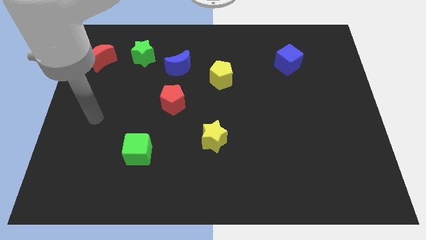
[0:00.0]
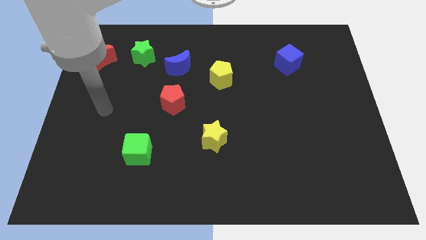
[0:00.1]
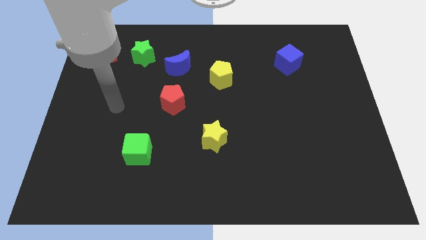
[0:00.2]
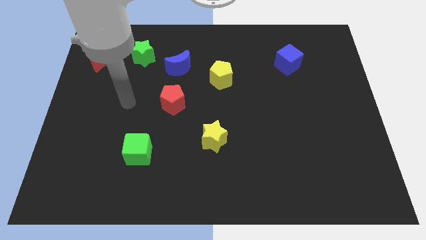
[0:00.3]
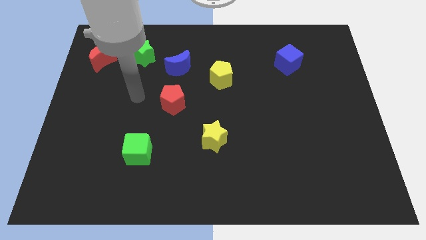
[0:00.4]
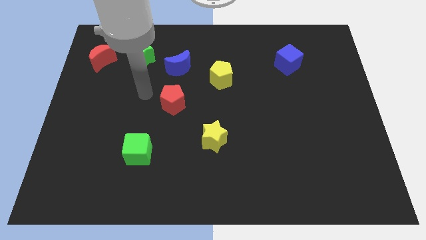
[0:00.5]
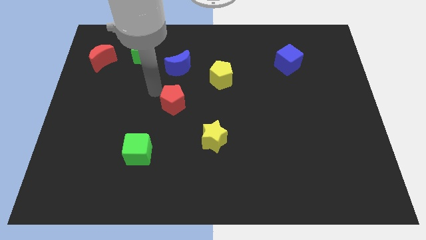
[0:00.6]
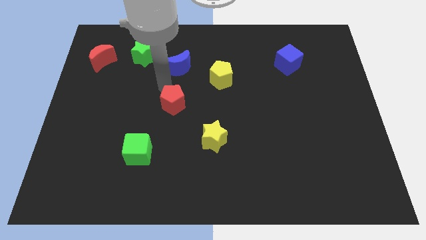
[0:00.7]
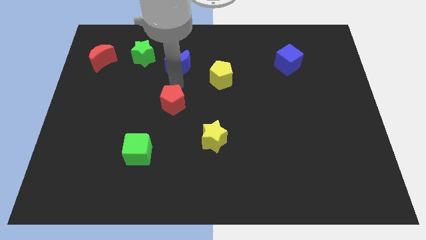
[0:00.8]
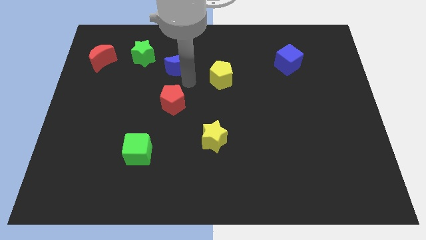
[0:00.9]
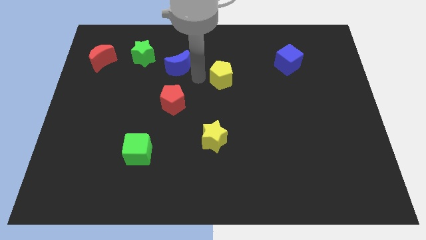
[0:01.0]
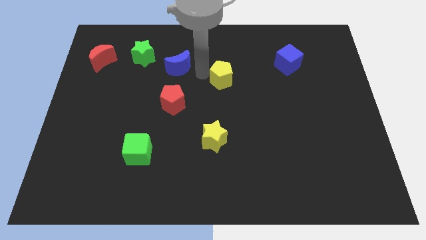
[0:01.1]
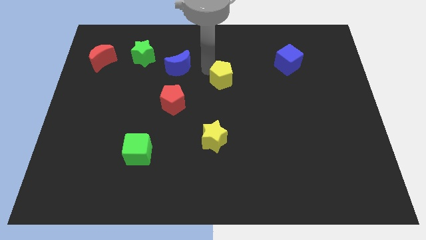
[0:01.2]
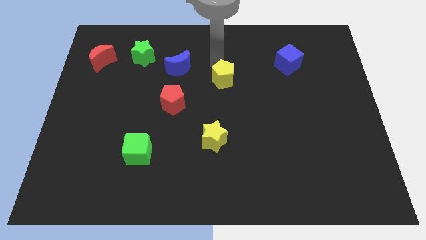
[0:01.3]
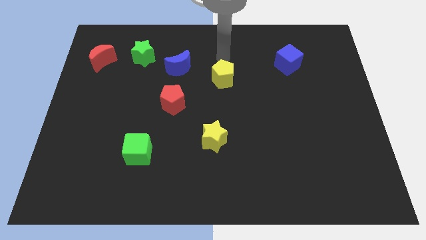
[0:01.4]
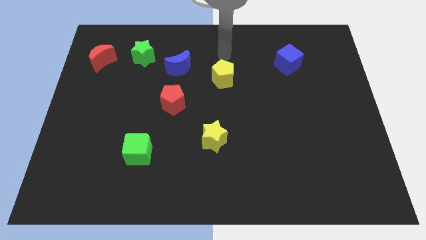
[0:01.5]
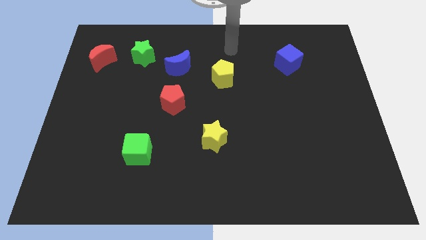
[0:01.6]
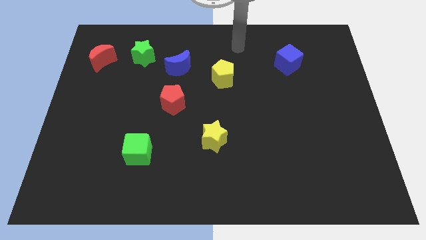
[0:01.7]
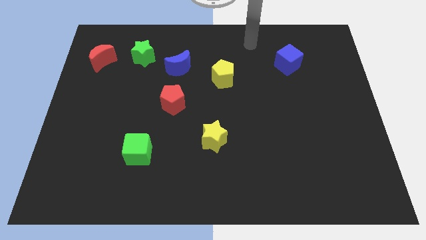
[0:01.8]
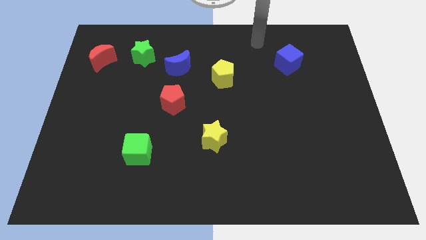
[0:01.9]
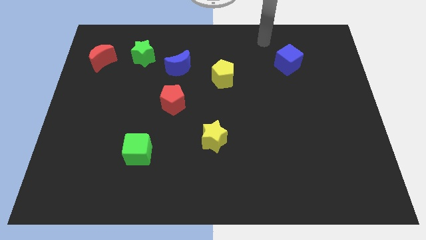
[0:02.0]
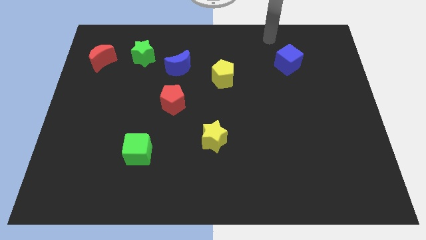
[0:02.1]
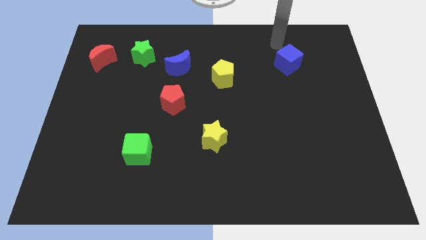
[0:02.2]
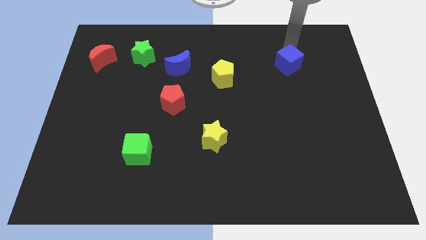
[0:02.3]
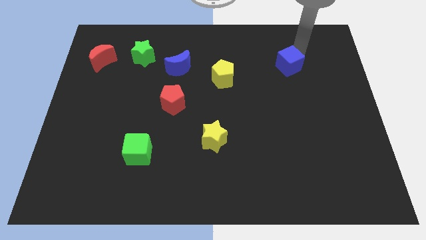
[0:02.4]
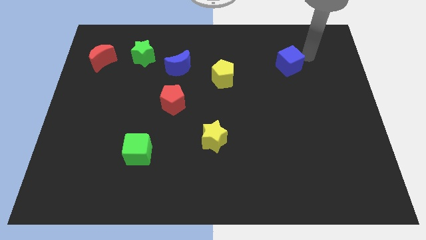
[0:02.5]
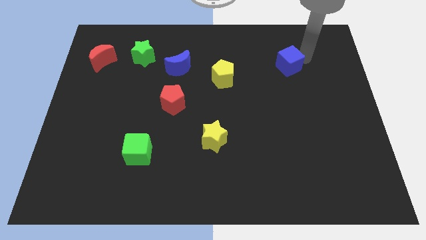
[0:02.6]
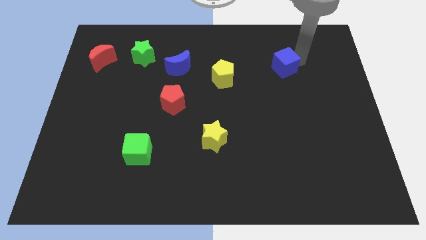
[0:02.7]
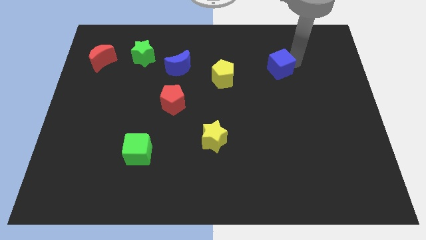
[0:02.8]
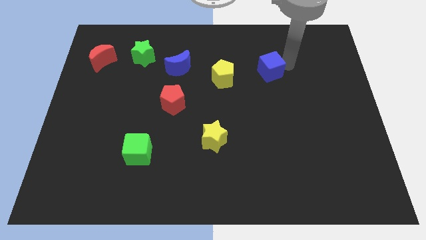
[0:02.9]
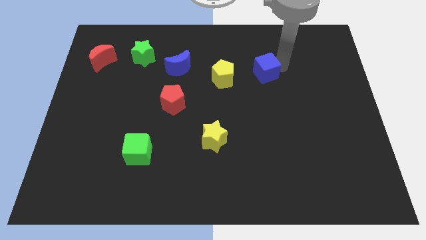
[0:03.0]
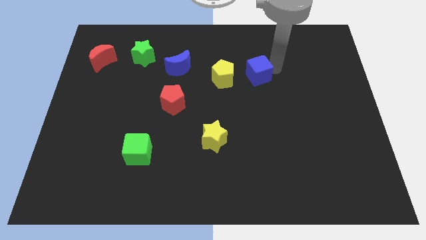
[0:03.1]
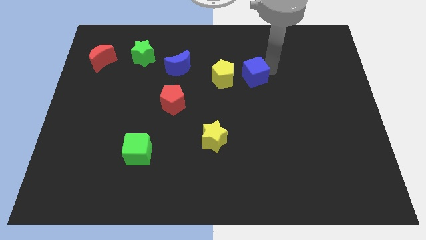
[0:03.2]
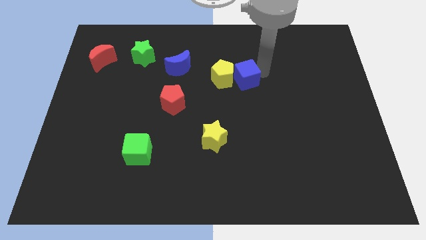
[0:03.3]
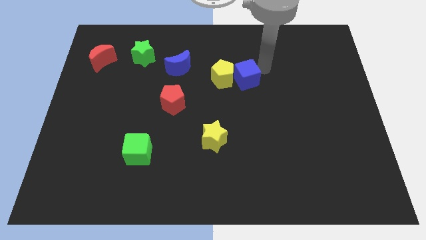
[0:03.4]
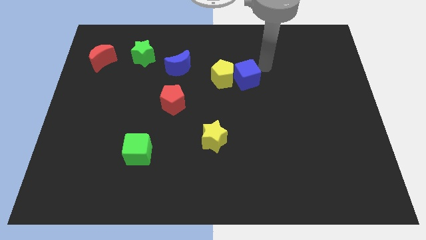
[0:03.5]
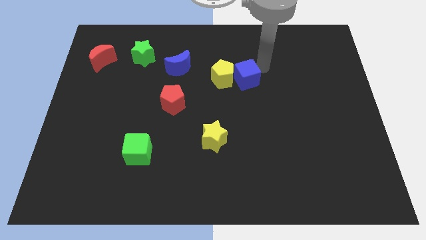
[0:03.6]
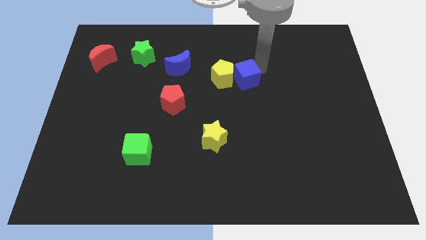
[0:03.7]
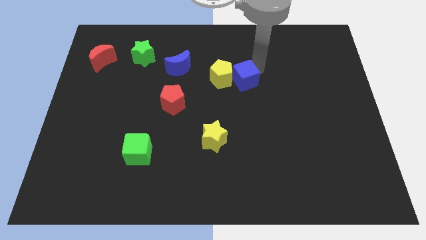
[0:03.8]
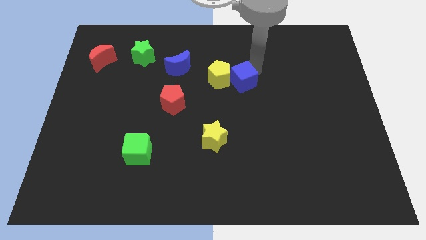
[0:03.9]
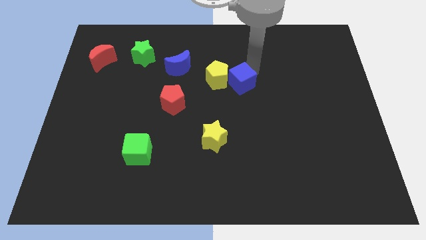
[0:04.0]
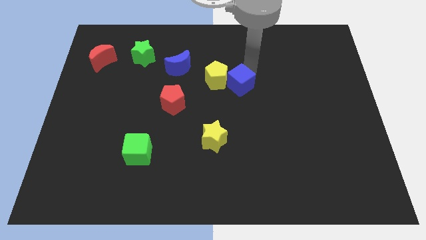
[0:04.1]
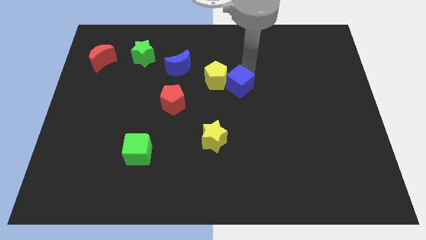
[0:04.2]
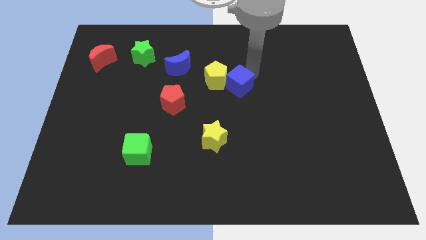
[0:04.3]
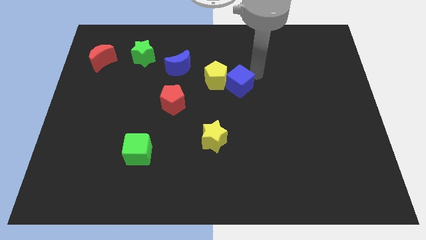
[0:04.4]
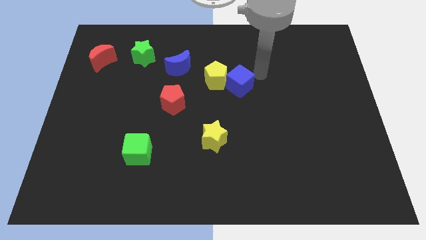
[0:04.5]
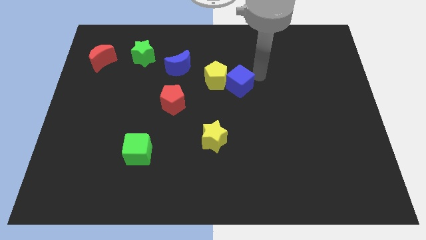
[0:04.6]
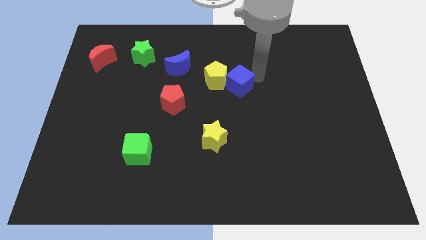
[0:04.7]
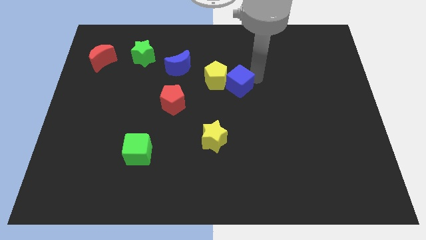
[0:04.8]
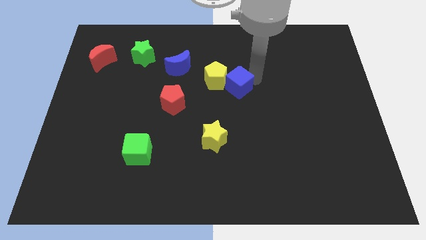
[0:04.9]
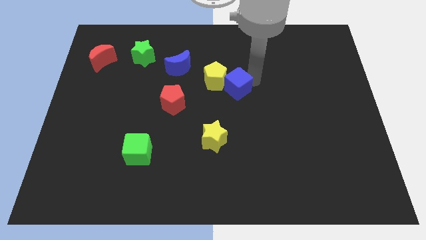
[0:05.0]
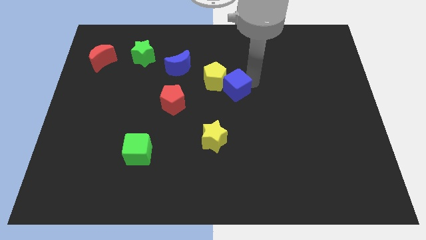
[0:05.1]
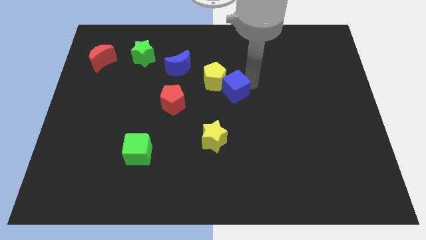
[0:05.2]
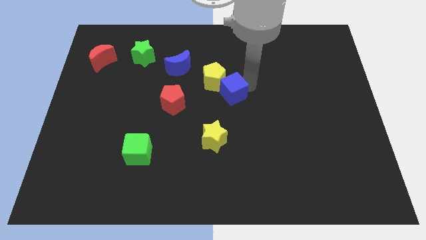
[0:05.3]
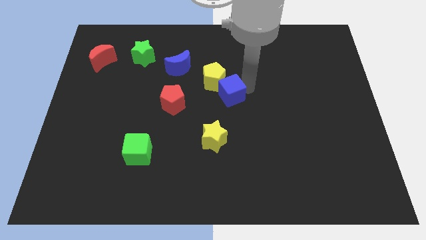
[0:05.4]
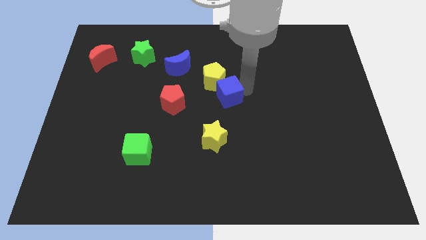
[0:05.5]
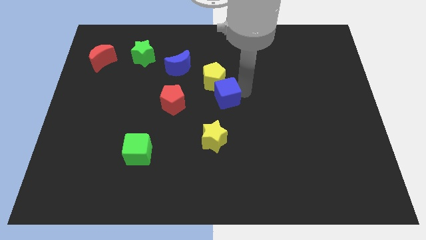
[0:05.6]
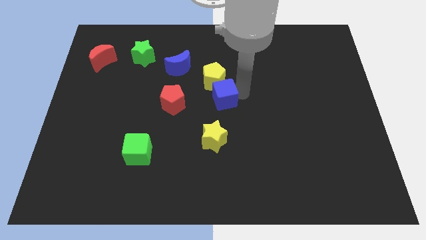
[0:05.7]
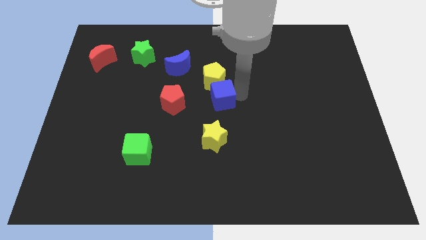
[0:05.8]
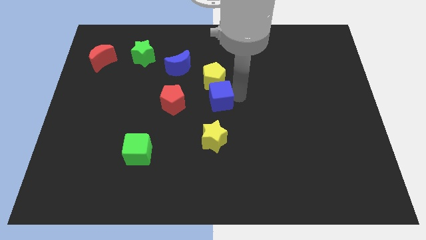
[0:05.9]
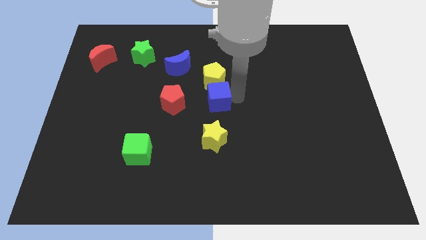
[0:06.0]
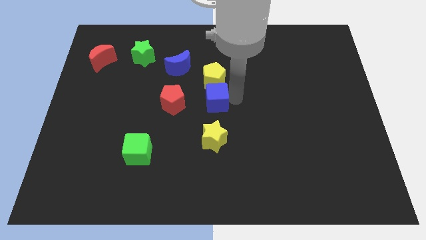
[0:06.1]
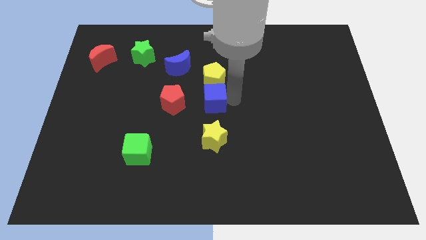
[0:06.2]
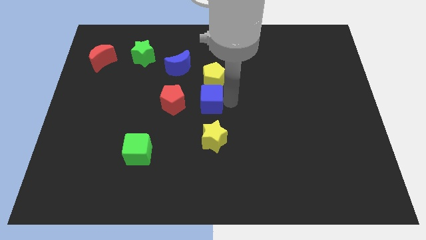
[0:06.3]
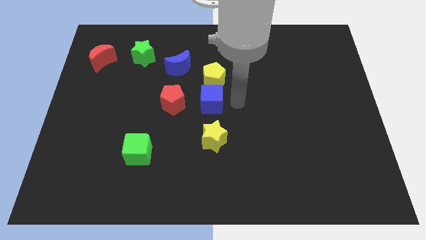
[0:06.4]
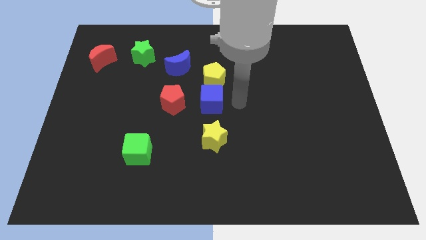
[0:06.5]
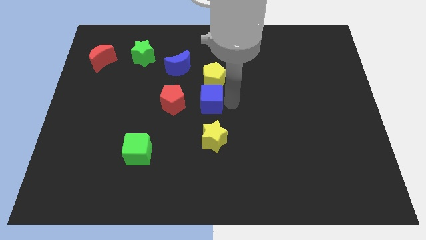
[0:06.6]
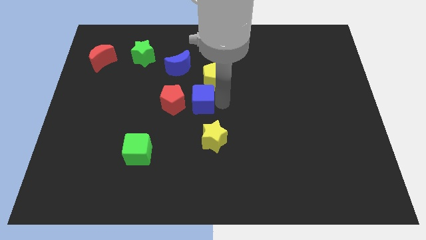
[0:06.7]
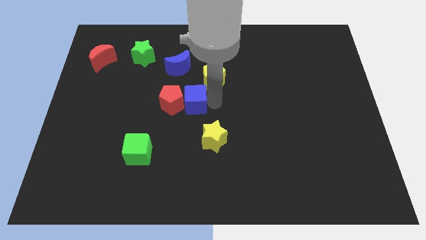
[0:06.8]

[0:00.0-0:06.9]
put the blue cube next to the red pentagon

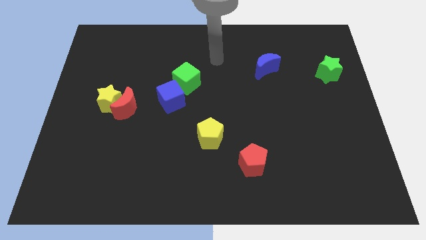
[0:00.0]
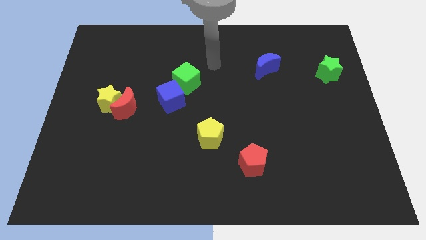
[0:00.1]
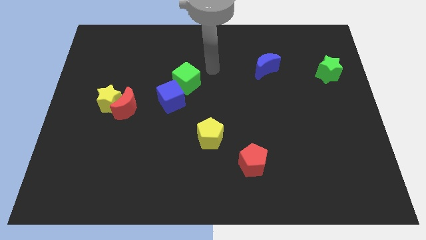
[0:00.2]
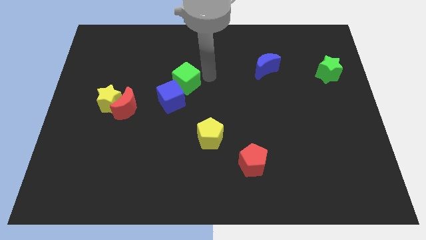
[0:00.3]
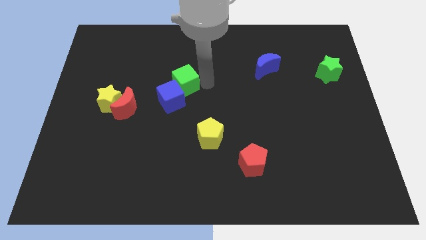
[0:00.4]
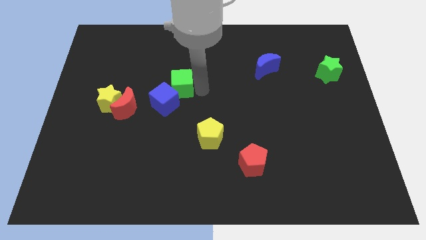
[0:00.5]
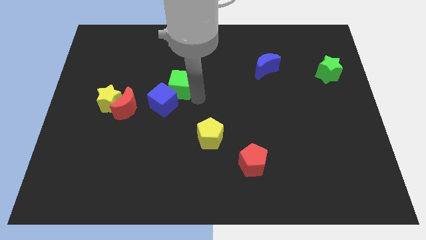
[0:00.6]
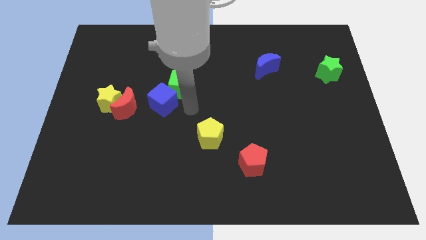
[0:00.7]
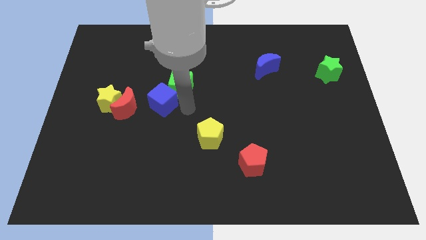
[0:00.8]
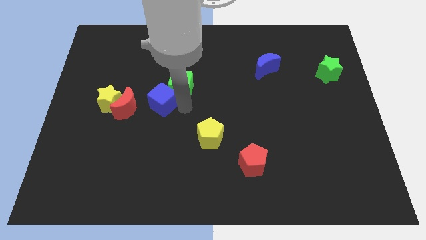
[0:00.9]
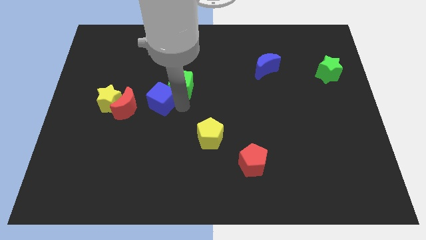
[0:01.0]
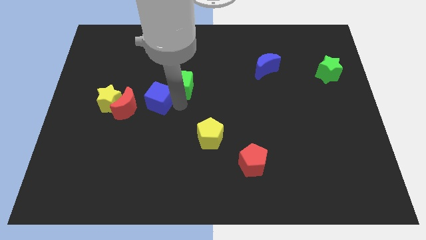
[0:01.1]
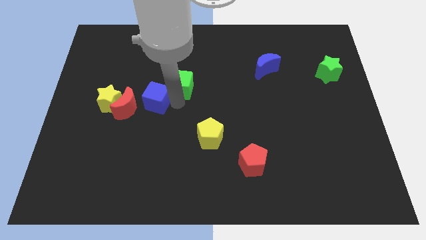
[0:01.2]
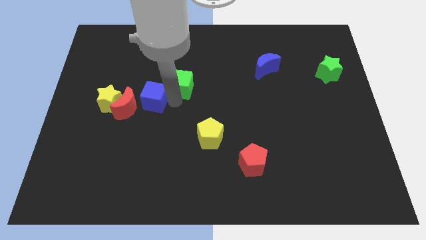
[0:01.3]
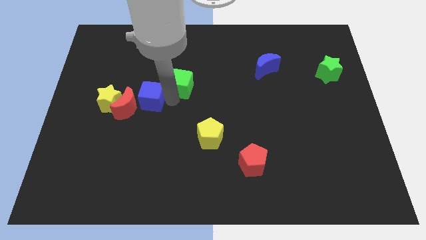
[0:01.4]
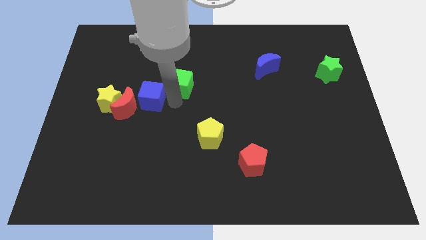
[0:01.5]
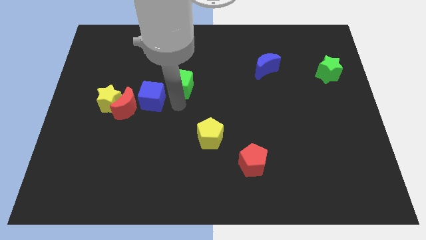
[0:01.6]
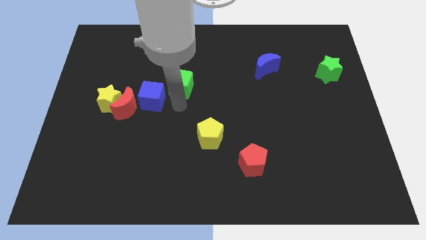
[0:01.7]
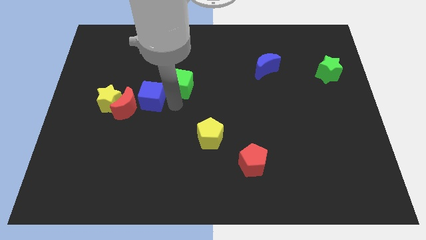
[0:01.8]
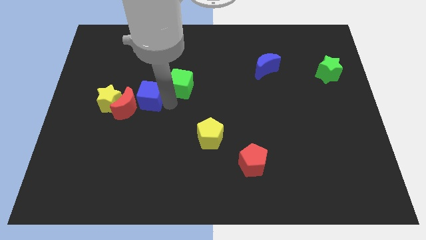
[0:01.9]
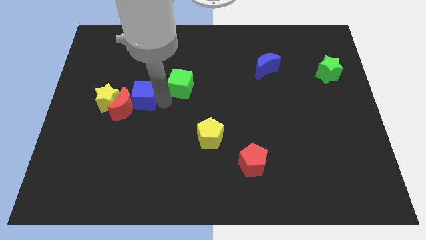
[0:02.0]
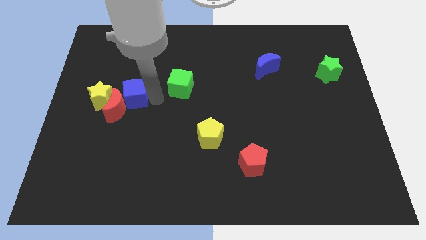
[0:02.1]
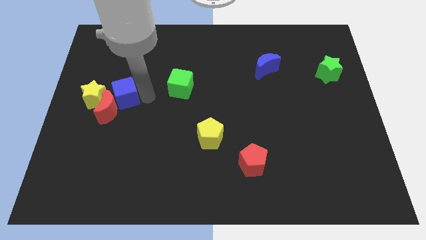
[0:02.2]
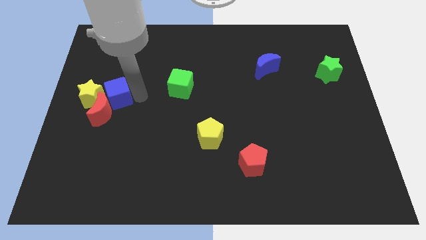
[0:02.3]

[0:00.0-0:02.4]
slide the blue cube next to the yellow star
